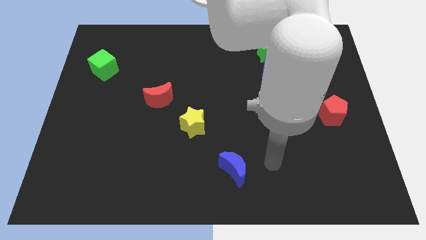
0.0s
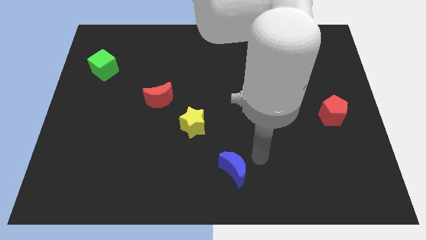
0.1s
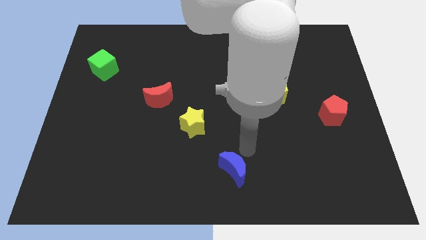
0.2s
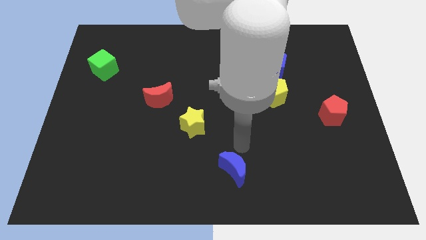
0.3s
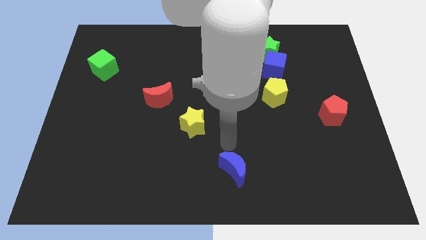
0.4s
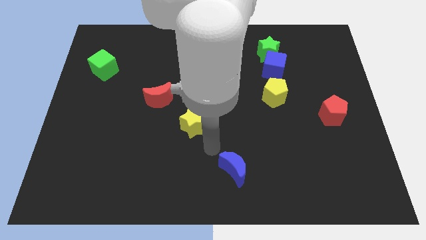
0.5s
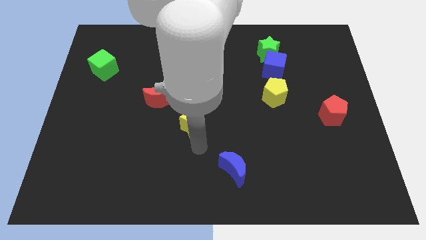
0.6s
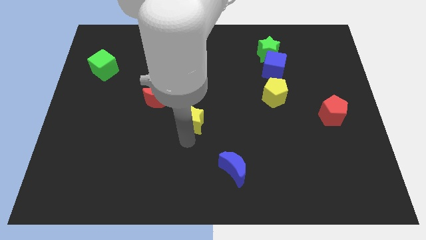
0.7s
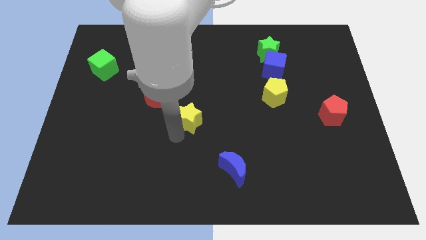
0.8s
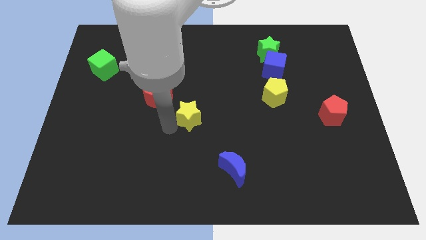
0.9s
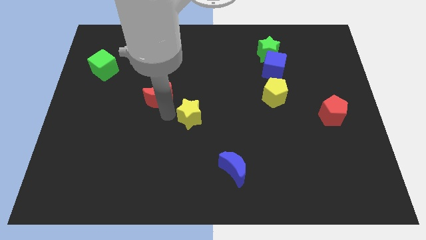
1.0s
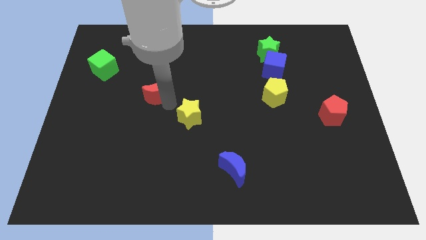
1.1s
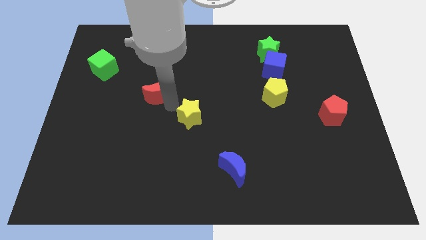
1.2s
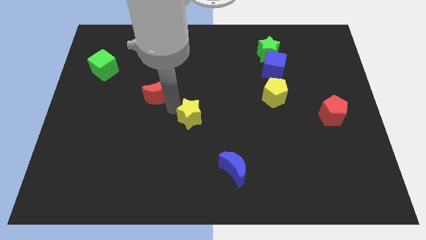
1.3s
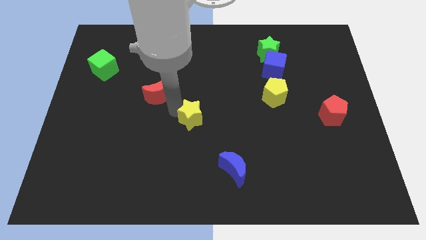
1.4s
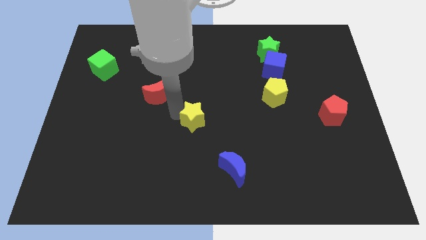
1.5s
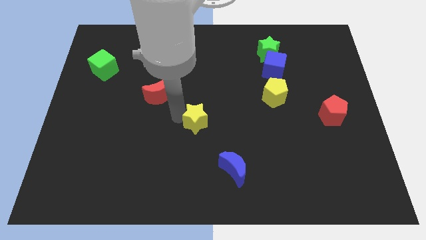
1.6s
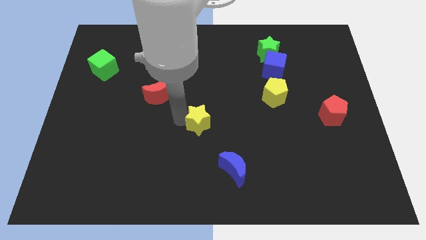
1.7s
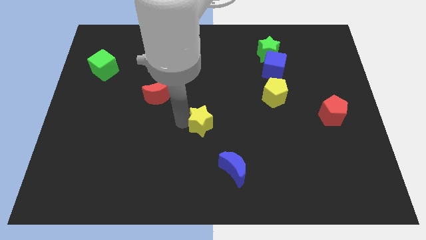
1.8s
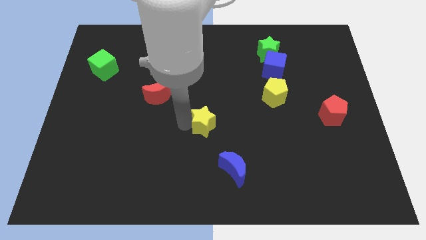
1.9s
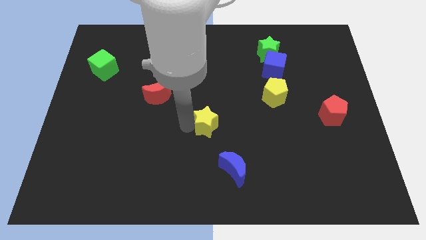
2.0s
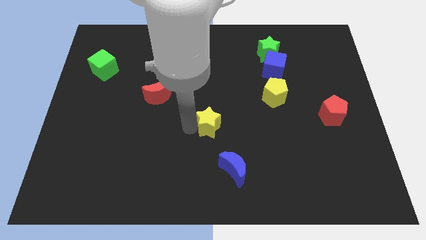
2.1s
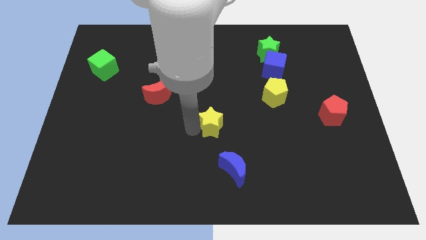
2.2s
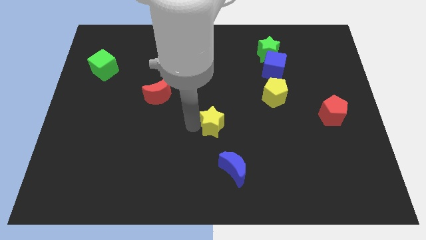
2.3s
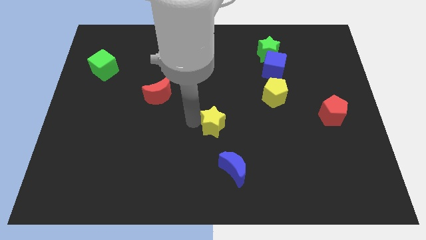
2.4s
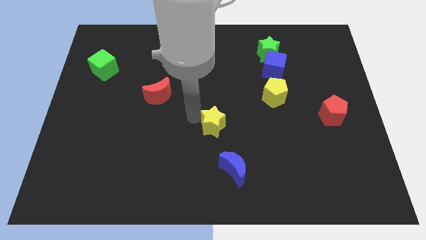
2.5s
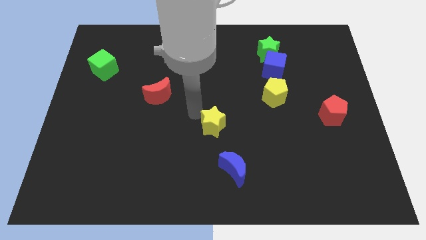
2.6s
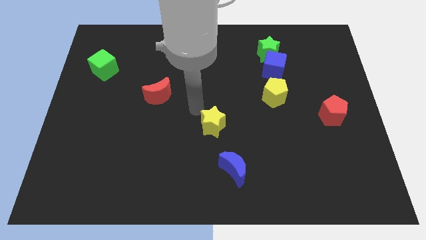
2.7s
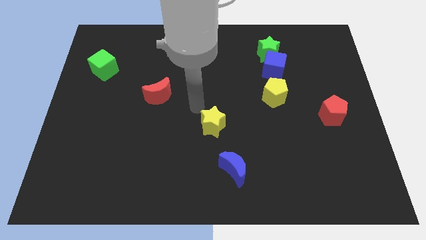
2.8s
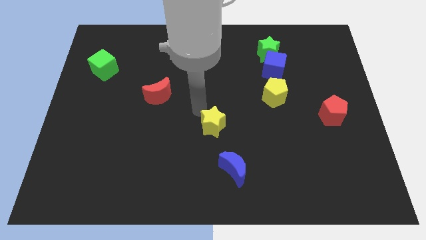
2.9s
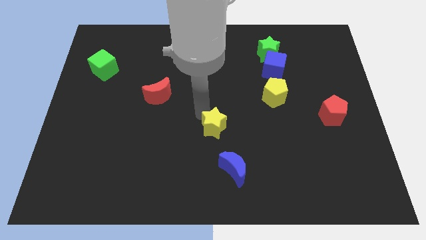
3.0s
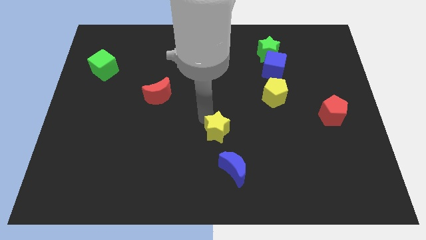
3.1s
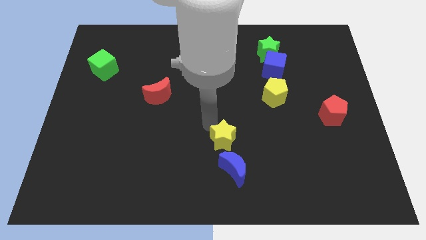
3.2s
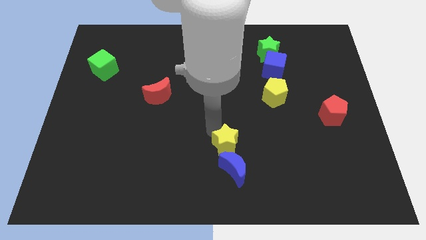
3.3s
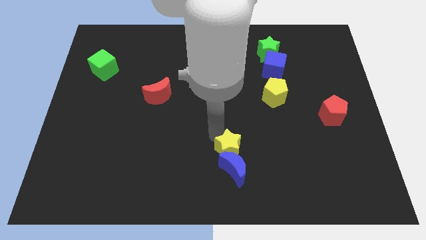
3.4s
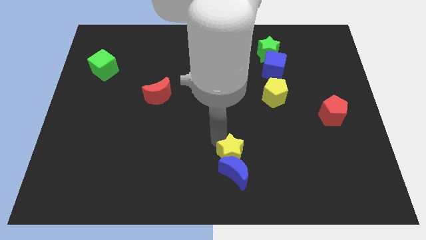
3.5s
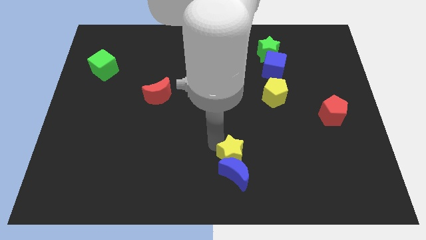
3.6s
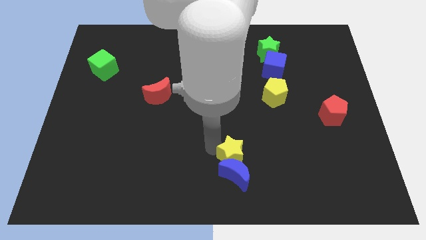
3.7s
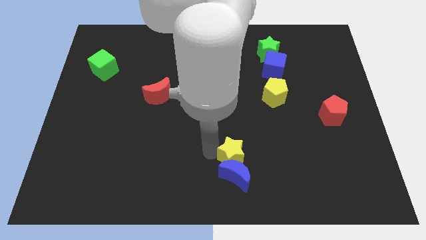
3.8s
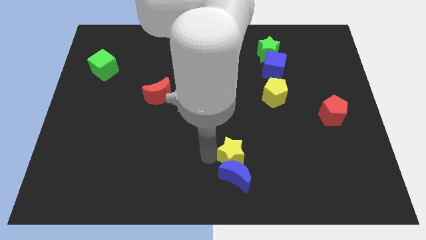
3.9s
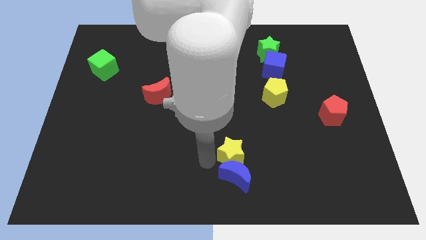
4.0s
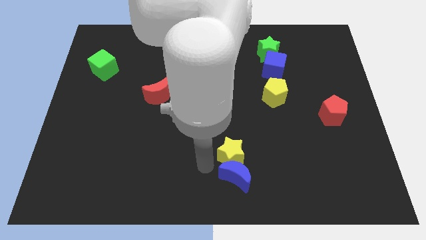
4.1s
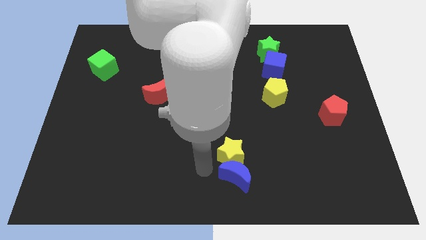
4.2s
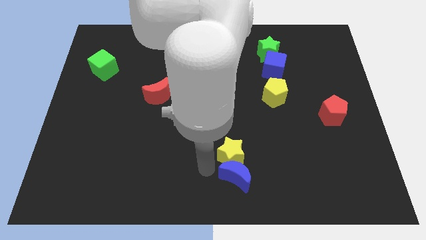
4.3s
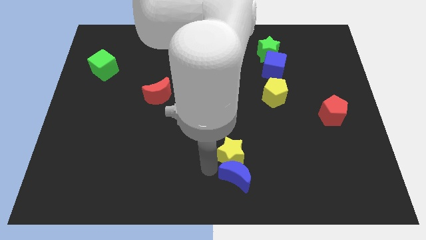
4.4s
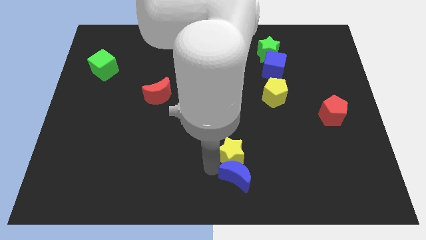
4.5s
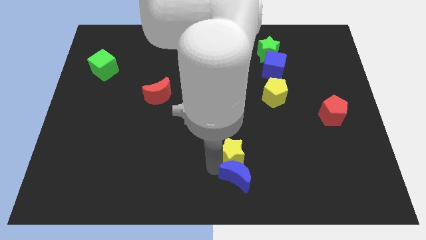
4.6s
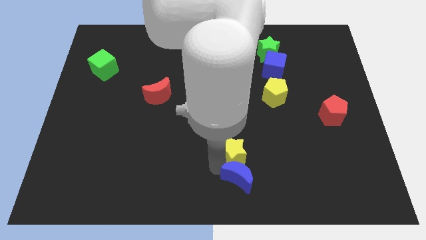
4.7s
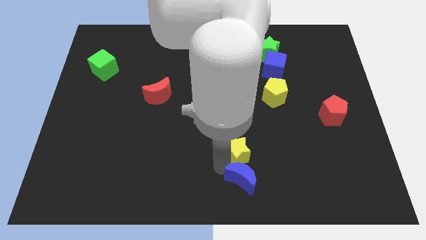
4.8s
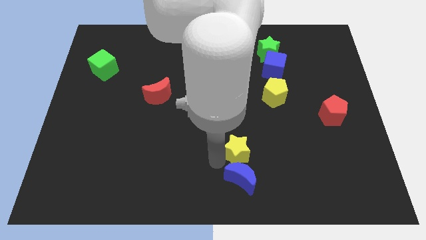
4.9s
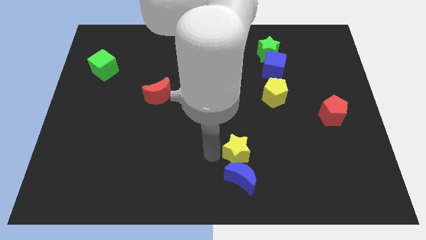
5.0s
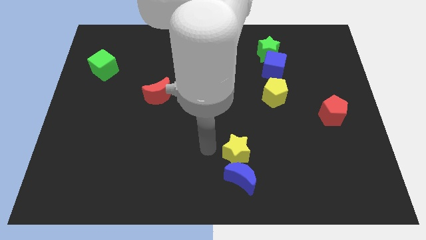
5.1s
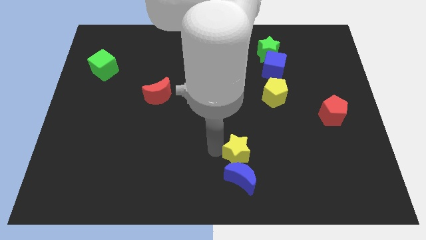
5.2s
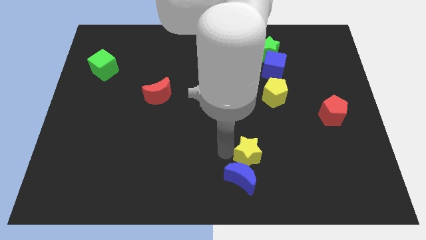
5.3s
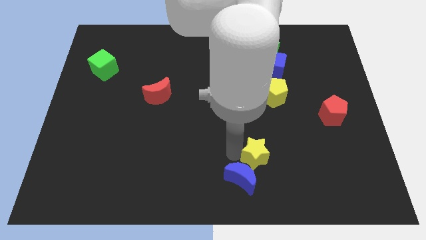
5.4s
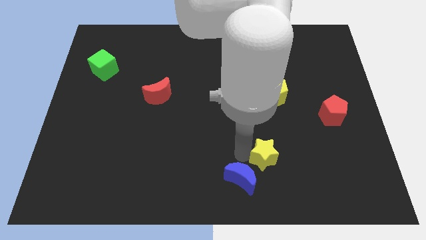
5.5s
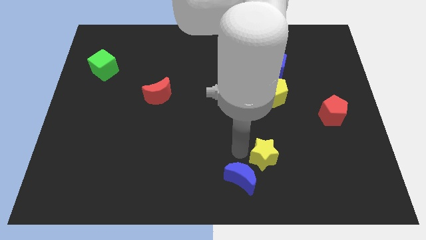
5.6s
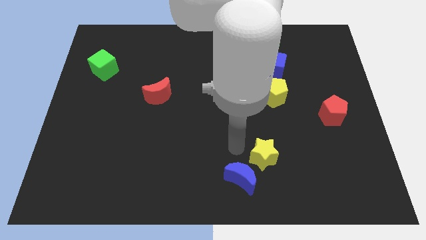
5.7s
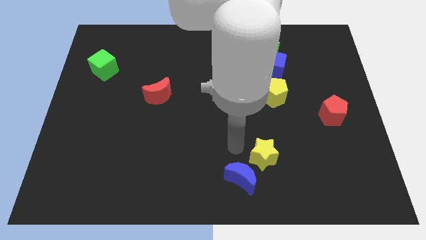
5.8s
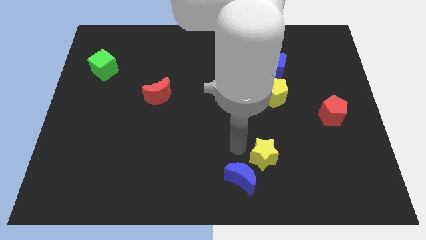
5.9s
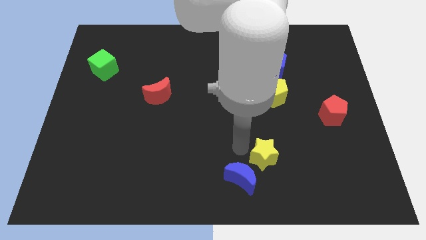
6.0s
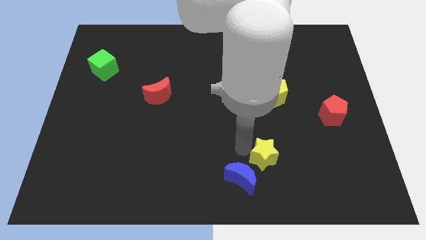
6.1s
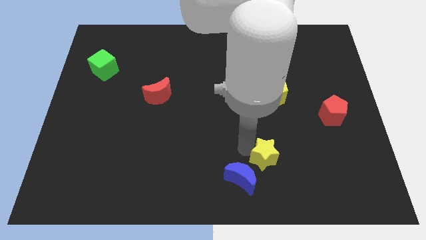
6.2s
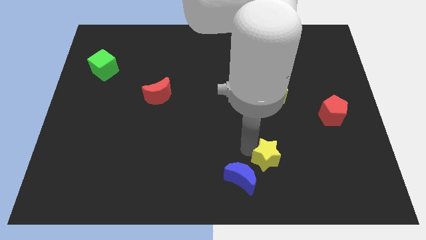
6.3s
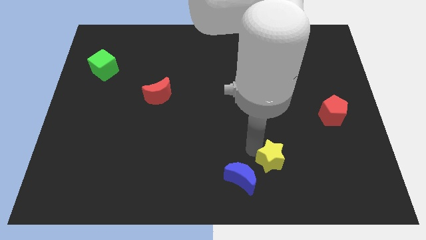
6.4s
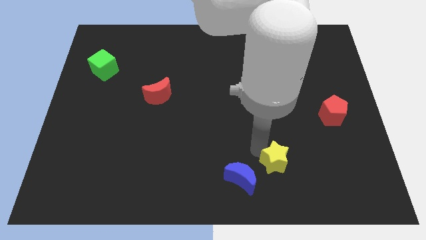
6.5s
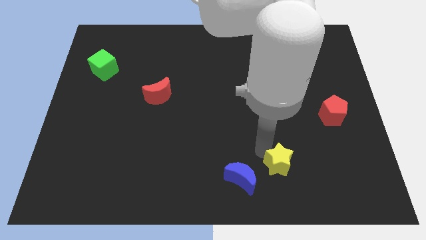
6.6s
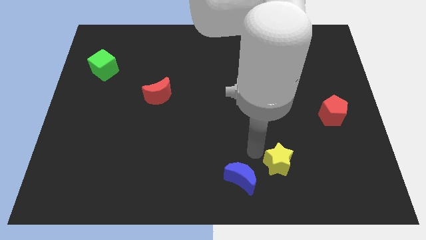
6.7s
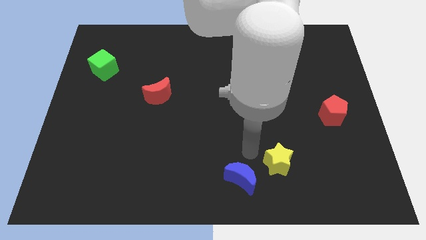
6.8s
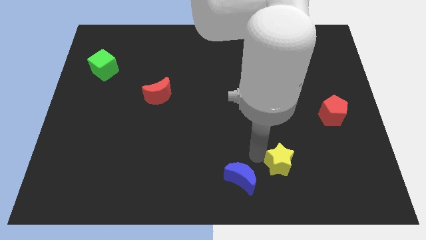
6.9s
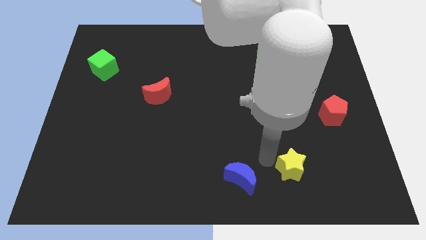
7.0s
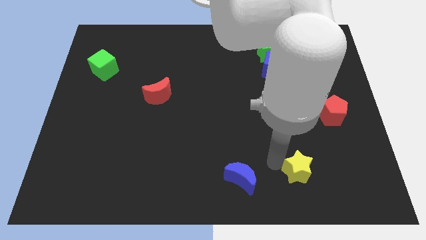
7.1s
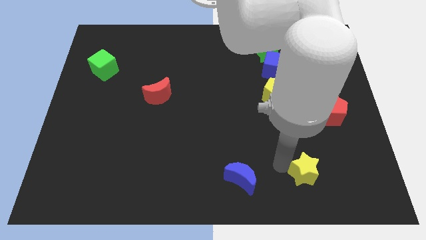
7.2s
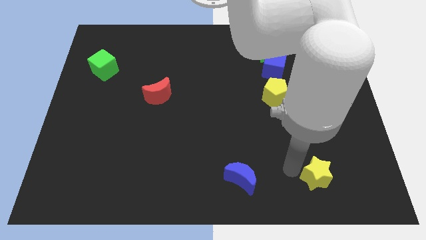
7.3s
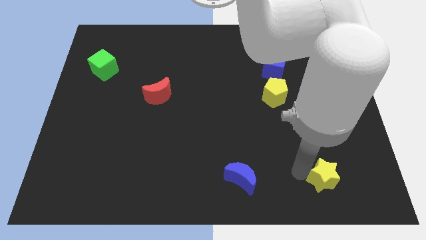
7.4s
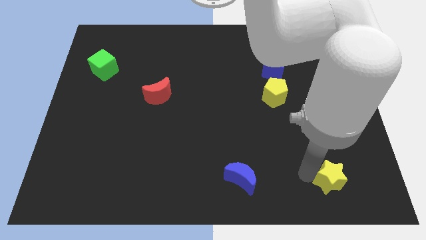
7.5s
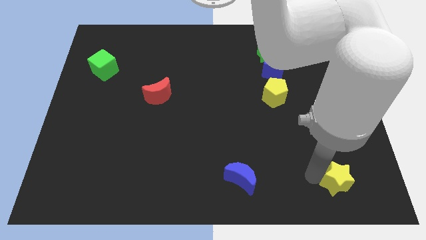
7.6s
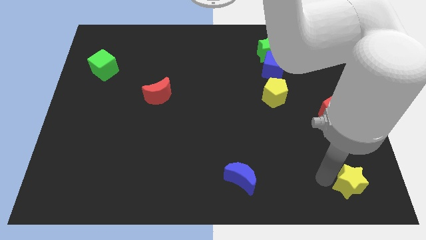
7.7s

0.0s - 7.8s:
slide the yellow star to the bottom right corner
